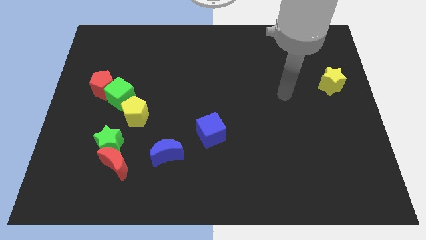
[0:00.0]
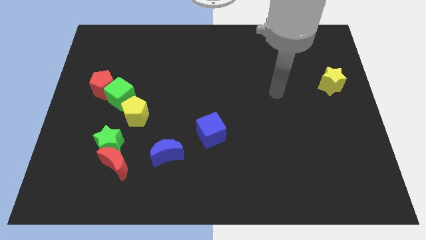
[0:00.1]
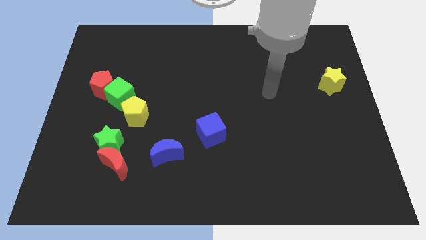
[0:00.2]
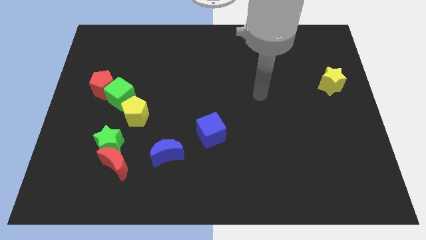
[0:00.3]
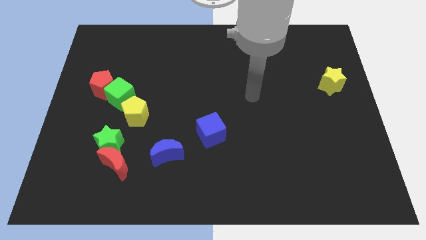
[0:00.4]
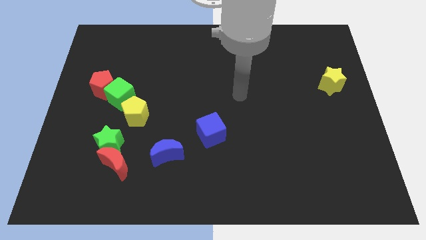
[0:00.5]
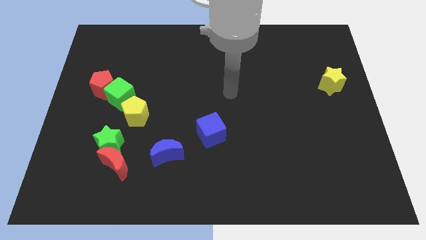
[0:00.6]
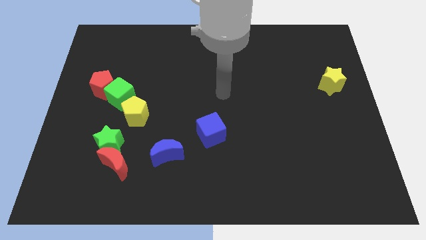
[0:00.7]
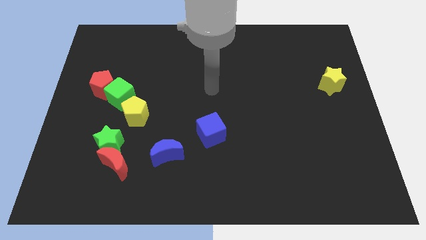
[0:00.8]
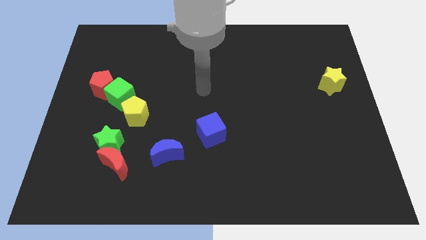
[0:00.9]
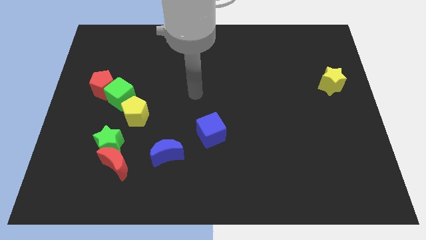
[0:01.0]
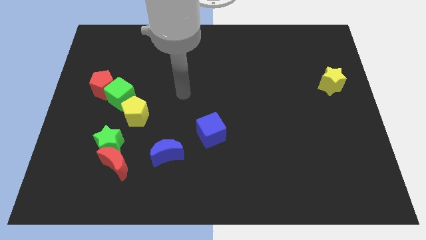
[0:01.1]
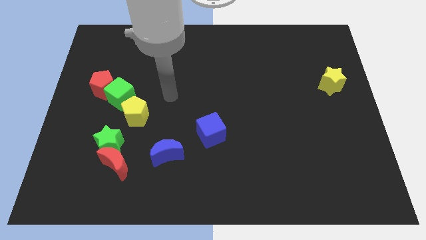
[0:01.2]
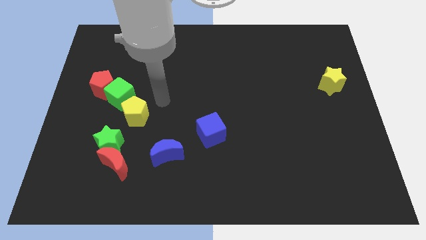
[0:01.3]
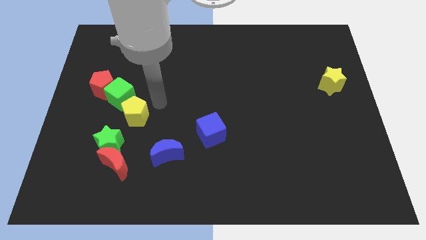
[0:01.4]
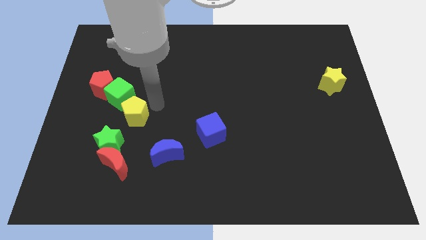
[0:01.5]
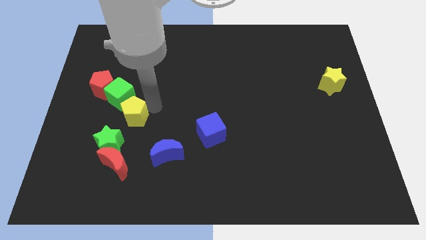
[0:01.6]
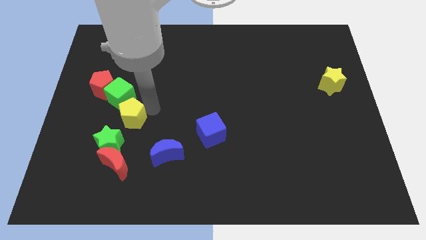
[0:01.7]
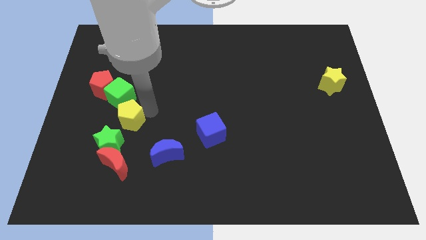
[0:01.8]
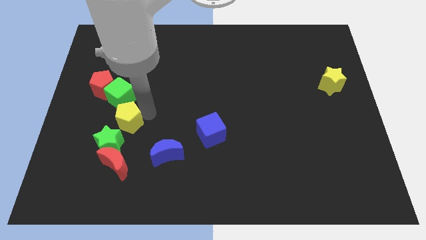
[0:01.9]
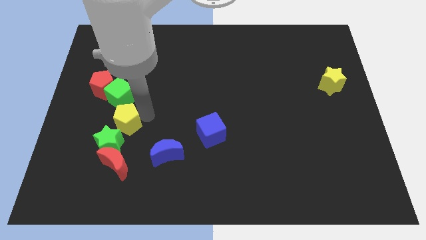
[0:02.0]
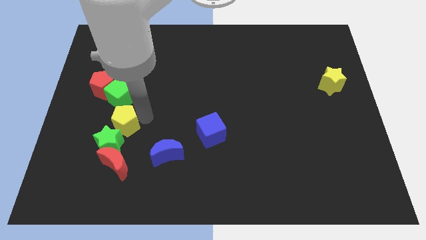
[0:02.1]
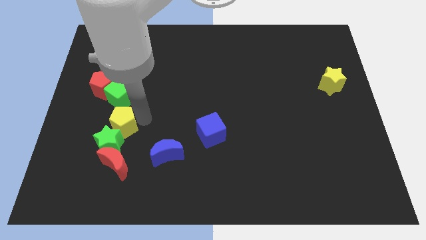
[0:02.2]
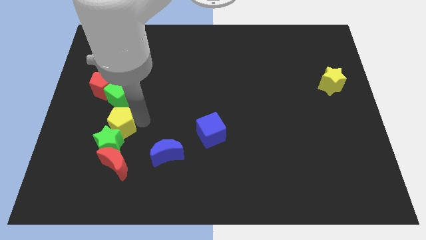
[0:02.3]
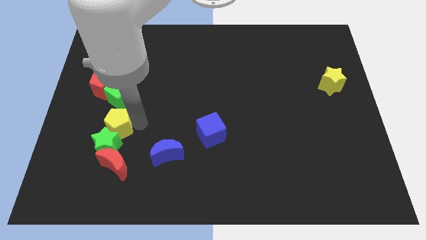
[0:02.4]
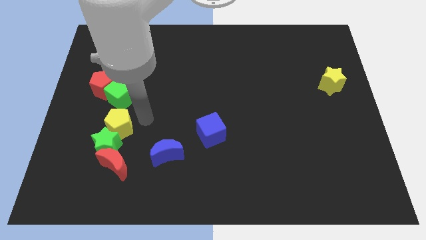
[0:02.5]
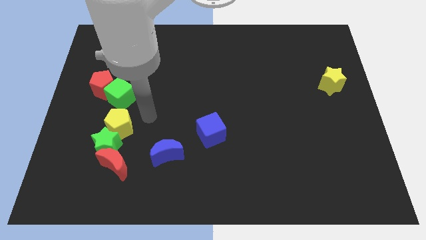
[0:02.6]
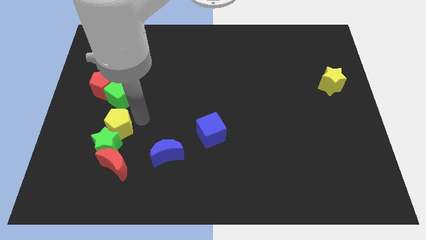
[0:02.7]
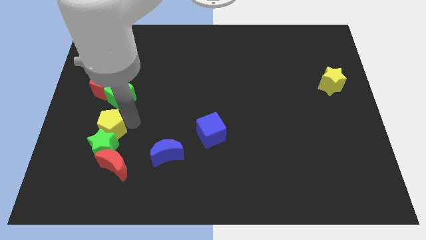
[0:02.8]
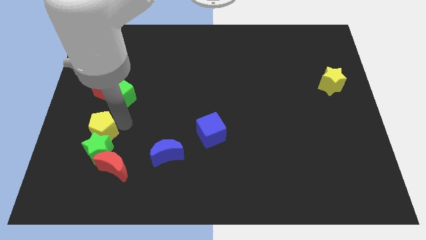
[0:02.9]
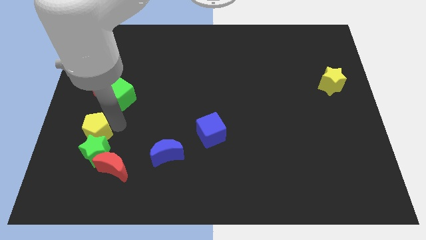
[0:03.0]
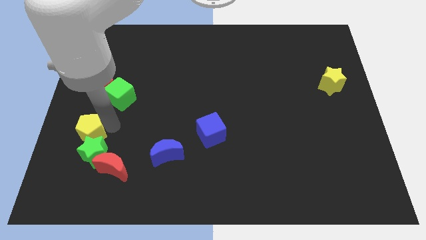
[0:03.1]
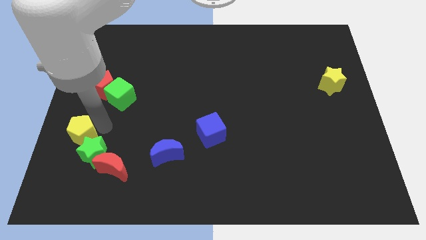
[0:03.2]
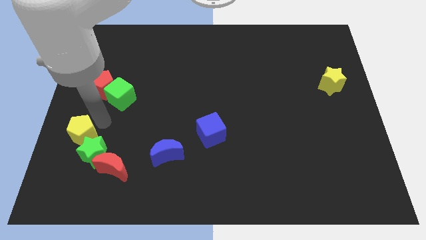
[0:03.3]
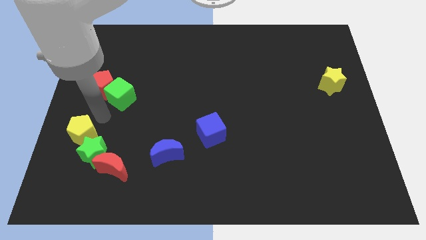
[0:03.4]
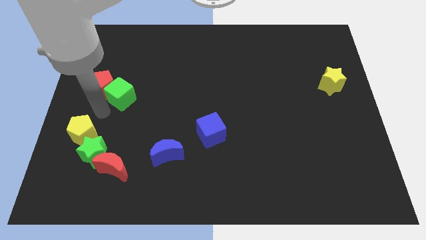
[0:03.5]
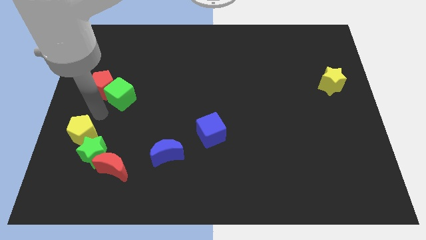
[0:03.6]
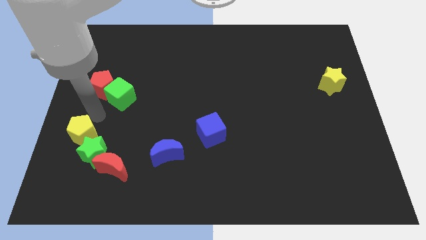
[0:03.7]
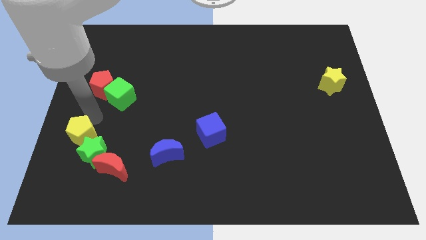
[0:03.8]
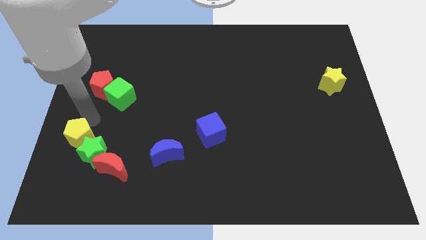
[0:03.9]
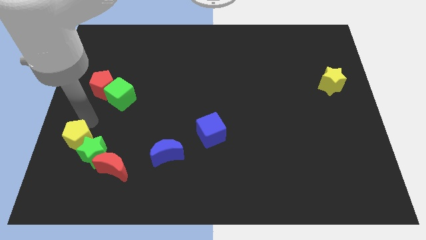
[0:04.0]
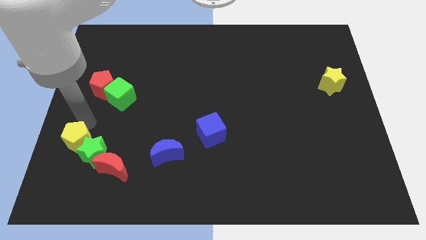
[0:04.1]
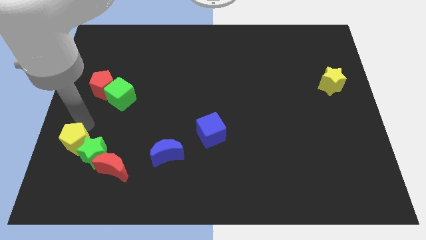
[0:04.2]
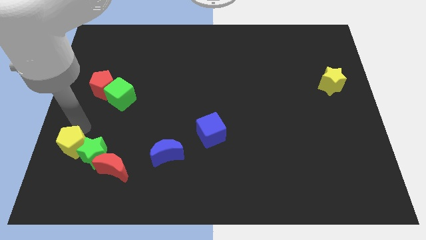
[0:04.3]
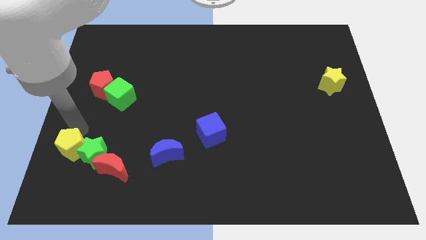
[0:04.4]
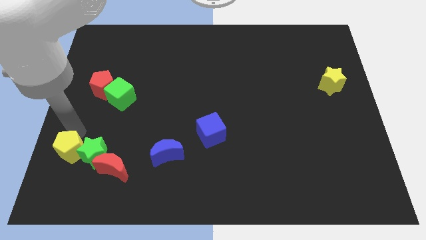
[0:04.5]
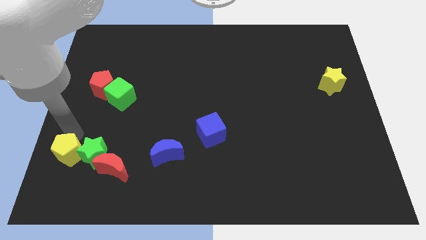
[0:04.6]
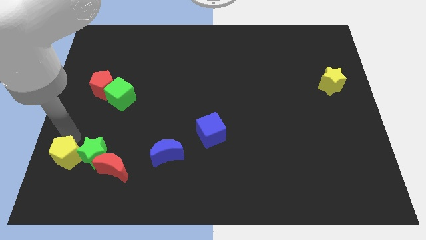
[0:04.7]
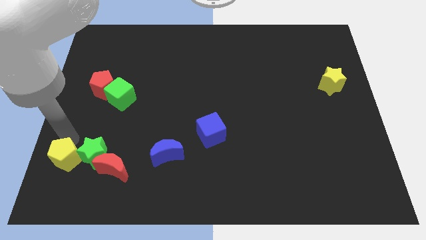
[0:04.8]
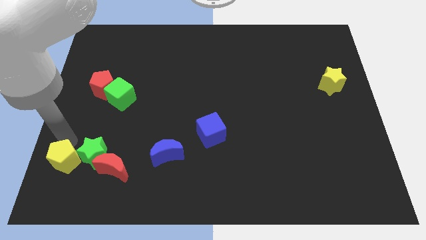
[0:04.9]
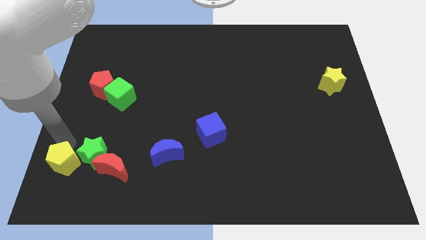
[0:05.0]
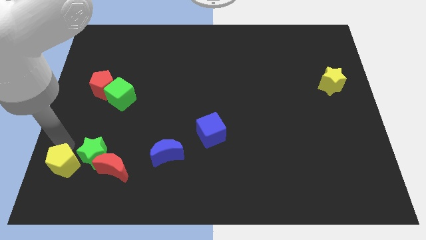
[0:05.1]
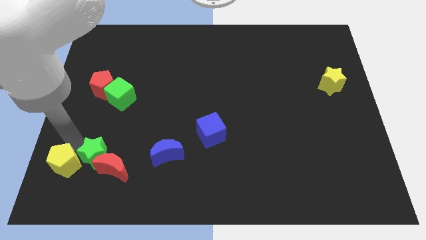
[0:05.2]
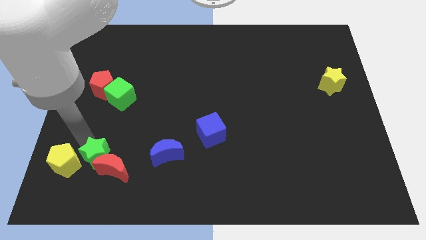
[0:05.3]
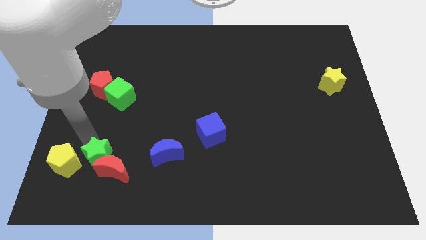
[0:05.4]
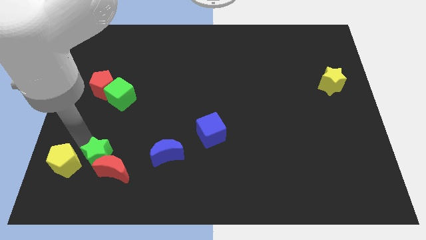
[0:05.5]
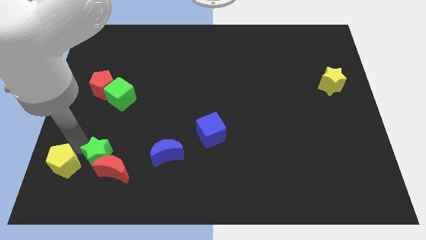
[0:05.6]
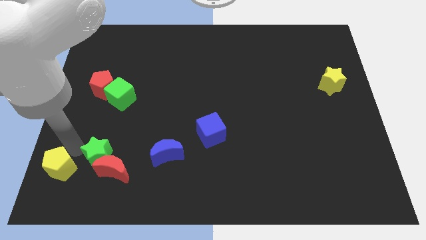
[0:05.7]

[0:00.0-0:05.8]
move the yellow pentagon to the bottom left corner
